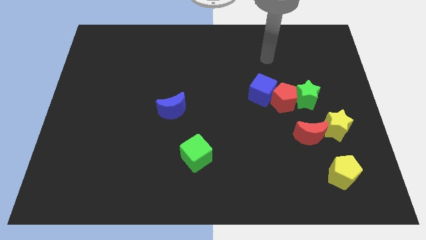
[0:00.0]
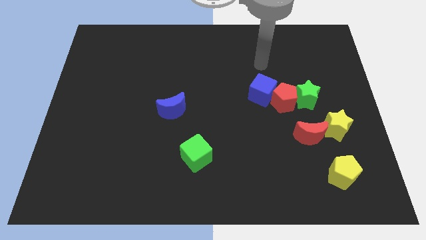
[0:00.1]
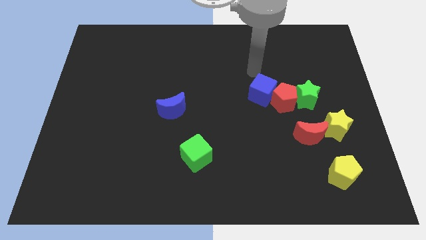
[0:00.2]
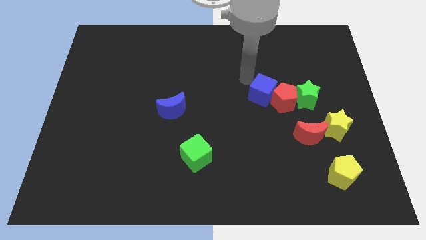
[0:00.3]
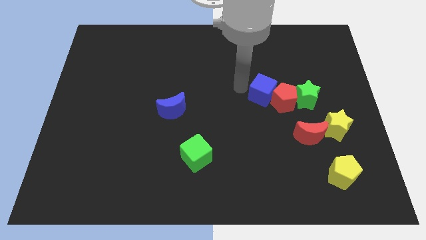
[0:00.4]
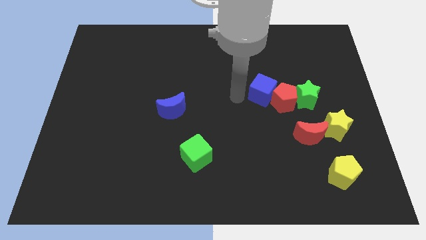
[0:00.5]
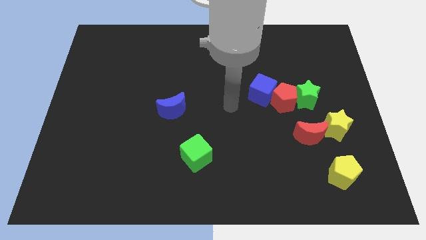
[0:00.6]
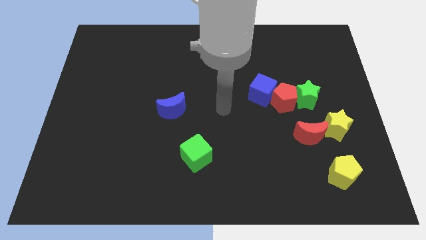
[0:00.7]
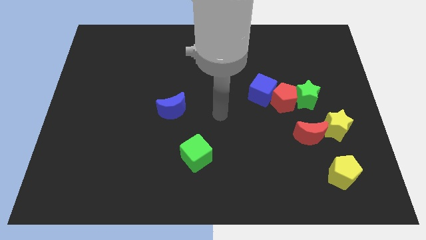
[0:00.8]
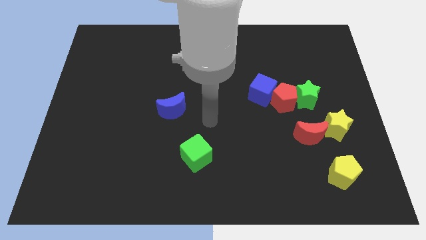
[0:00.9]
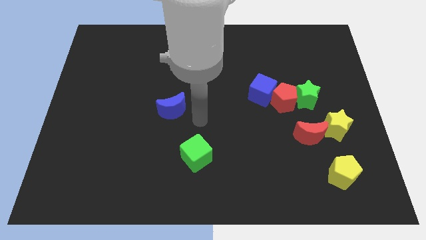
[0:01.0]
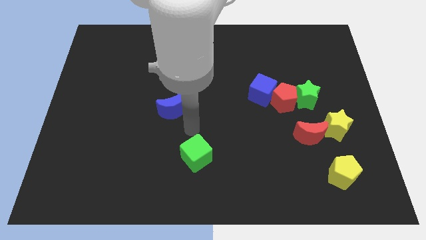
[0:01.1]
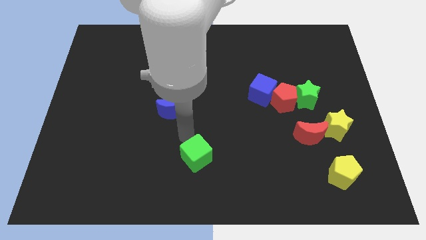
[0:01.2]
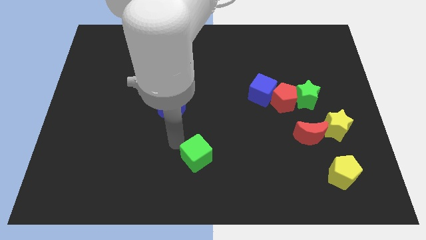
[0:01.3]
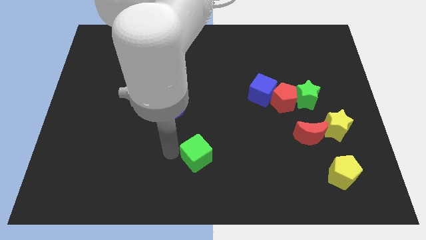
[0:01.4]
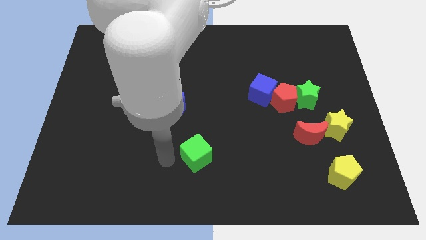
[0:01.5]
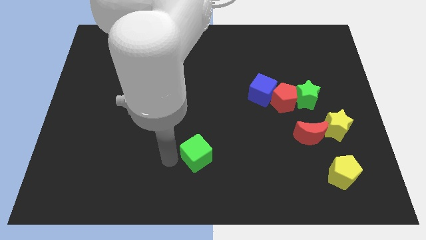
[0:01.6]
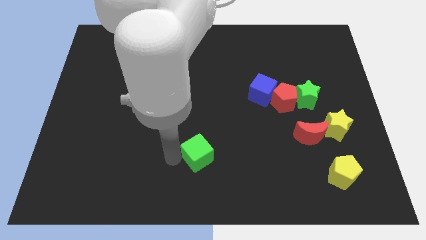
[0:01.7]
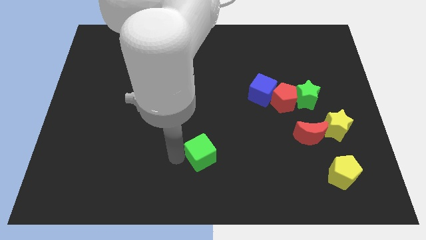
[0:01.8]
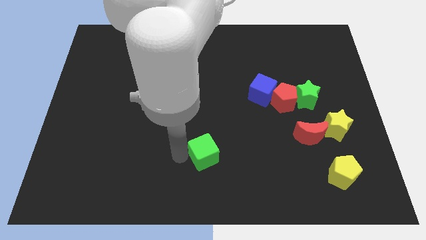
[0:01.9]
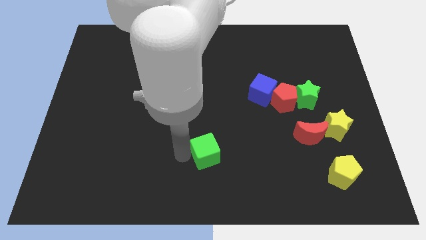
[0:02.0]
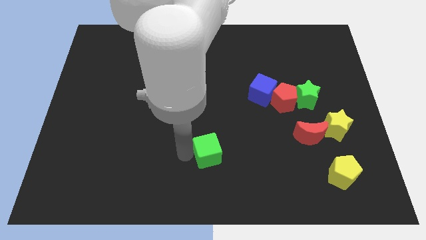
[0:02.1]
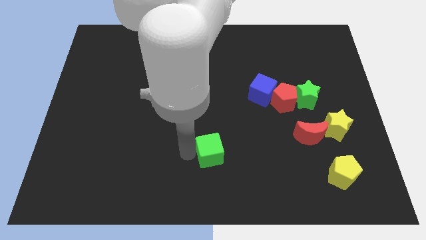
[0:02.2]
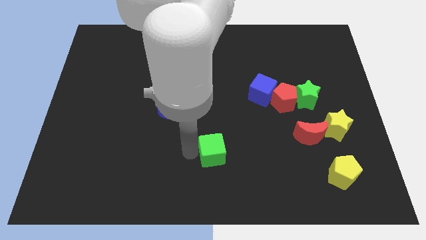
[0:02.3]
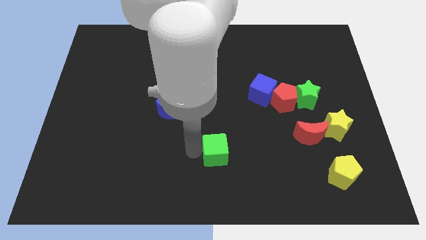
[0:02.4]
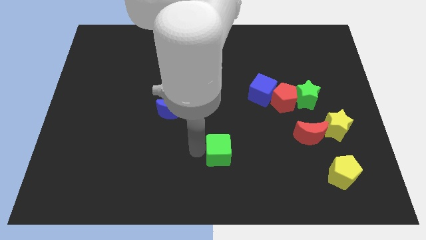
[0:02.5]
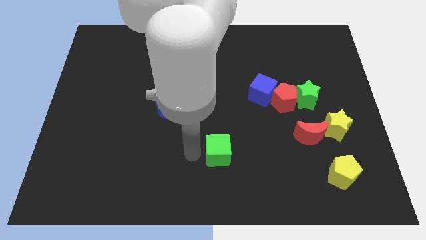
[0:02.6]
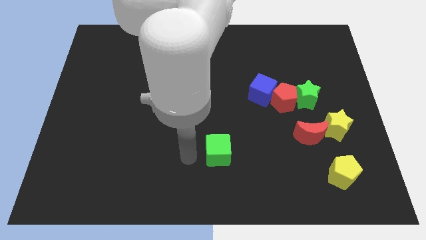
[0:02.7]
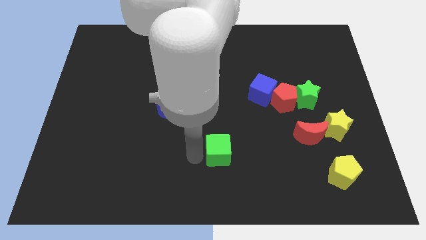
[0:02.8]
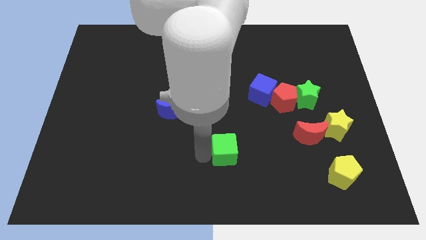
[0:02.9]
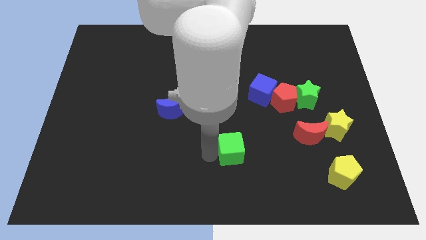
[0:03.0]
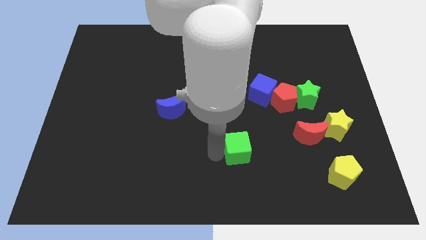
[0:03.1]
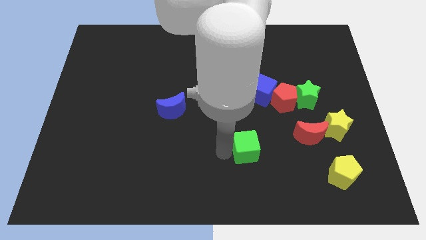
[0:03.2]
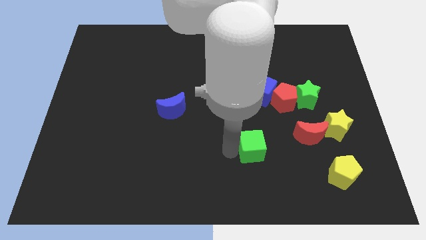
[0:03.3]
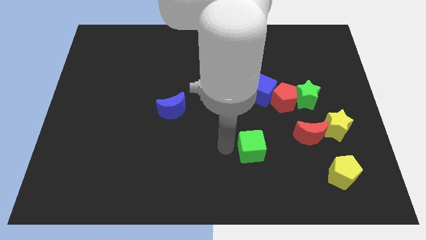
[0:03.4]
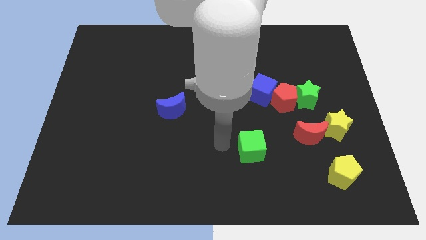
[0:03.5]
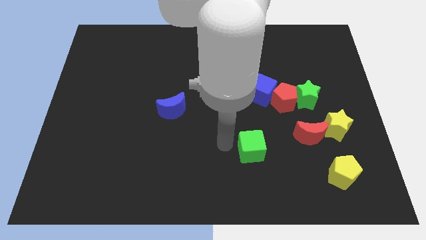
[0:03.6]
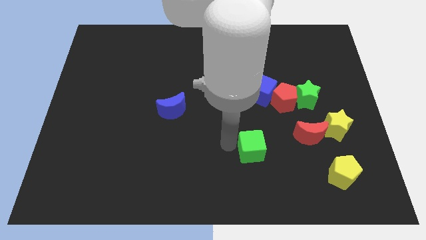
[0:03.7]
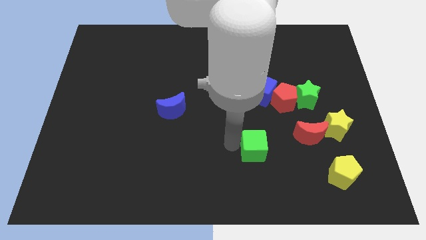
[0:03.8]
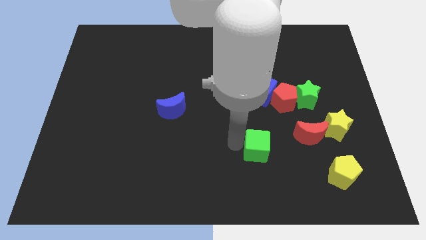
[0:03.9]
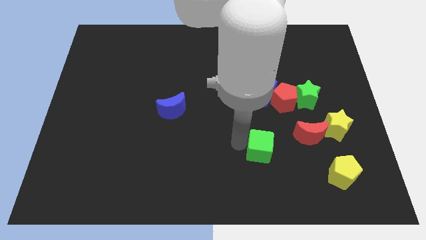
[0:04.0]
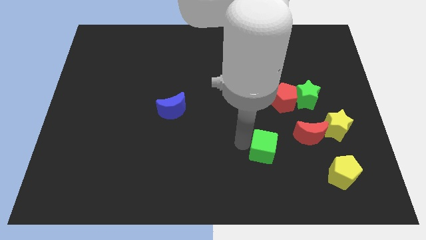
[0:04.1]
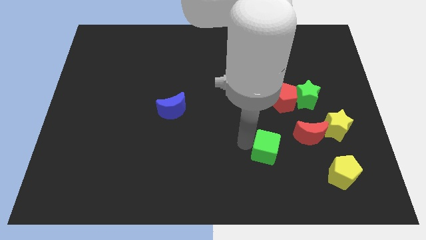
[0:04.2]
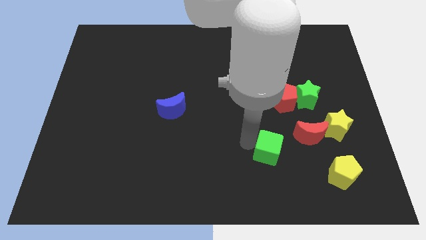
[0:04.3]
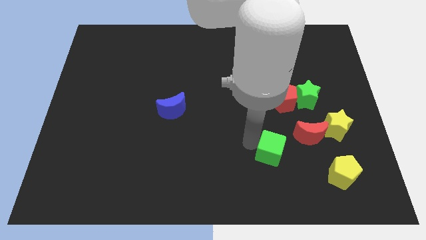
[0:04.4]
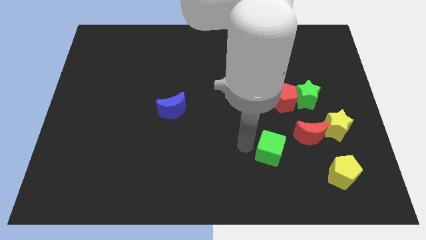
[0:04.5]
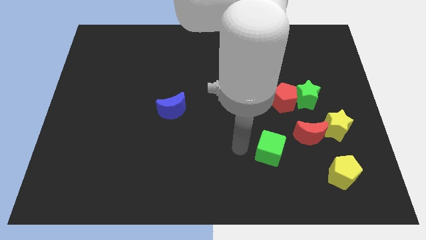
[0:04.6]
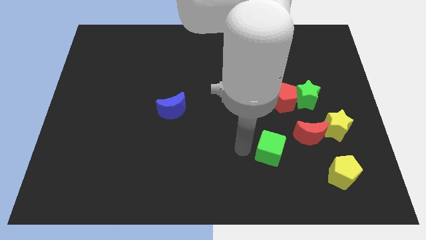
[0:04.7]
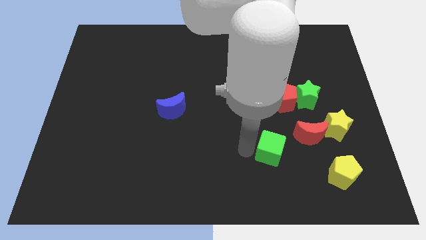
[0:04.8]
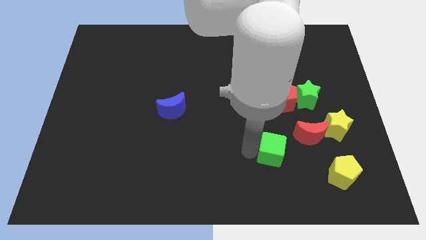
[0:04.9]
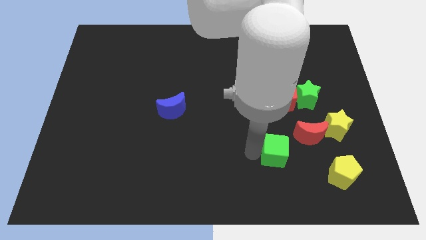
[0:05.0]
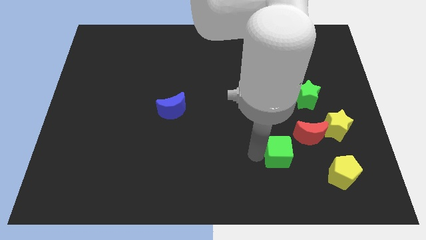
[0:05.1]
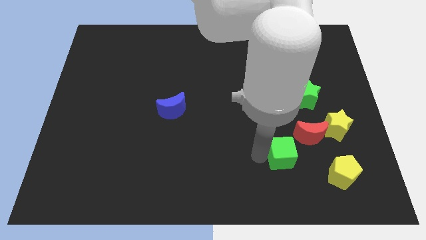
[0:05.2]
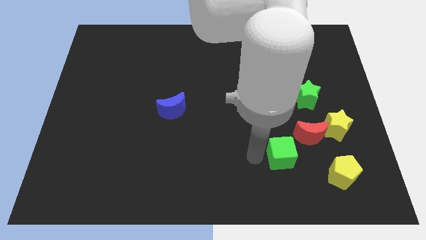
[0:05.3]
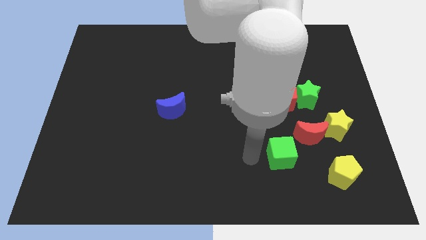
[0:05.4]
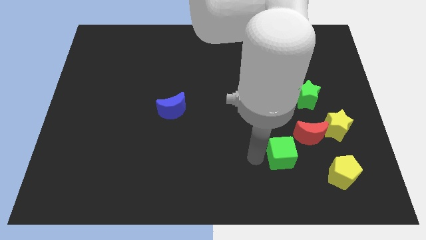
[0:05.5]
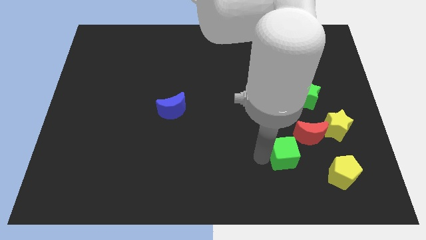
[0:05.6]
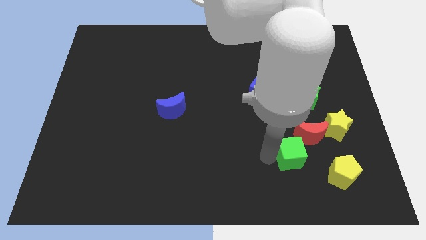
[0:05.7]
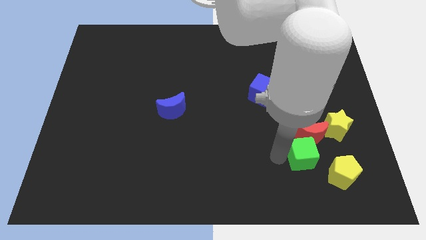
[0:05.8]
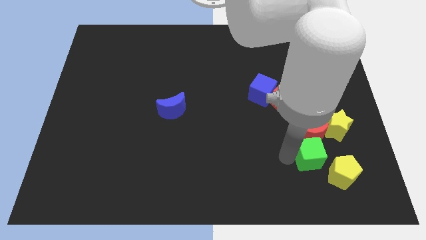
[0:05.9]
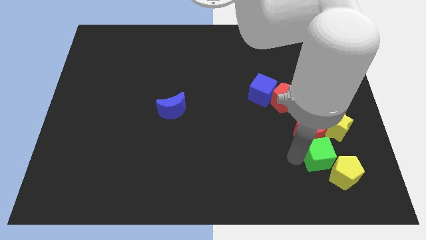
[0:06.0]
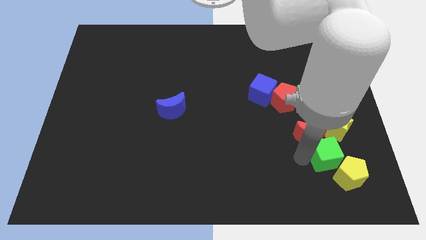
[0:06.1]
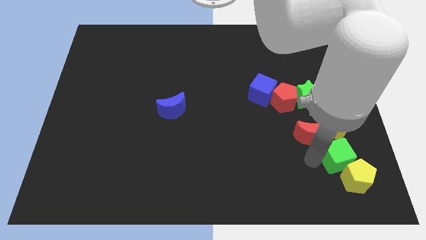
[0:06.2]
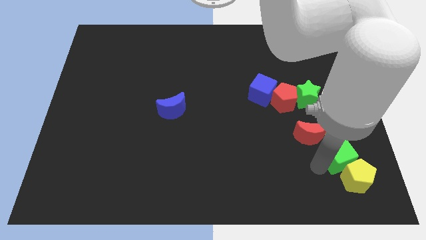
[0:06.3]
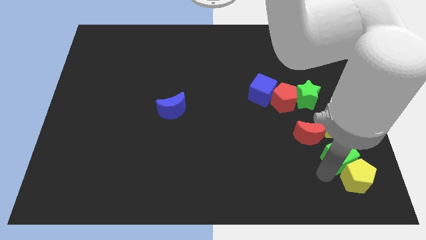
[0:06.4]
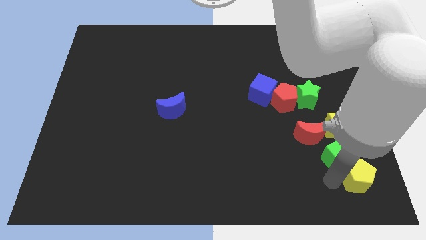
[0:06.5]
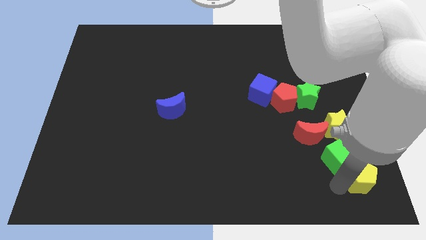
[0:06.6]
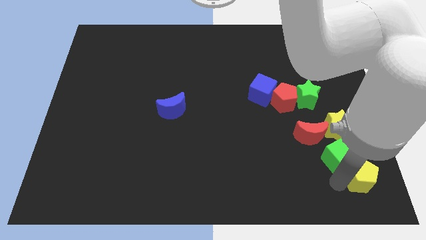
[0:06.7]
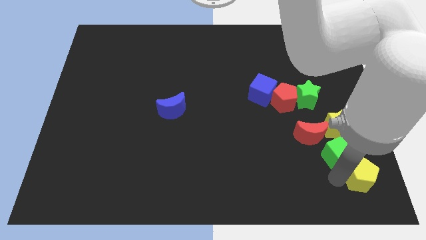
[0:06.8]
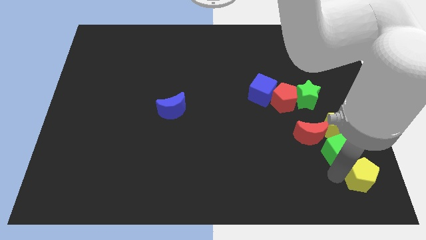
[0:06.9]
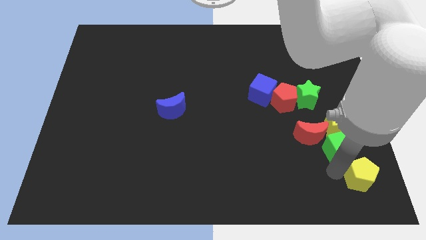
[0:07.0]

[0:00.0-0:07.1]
put the green cube close to the yellow star

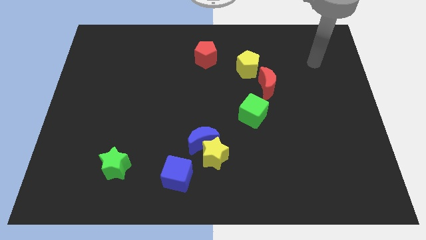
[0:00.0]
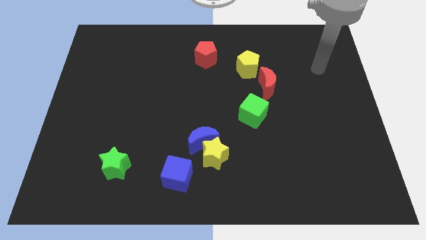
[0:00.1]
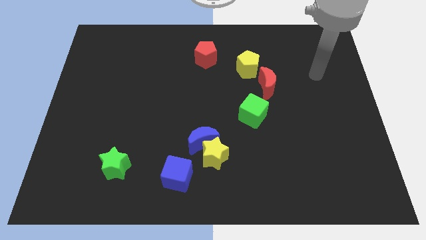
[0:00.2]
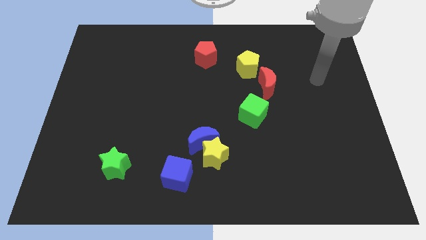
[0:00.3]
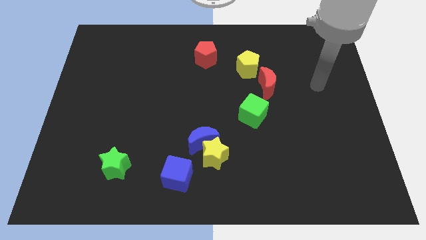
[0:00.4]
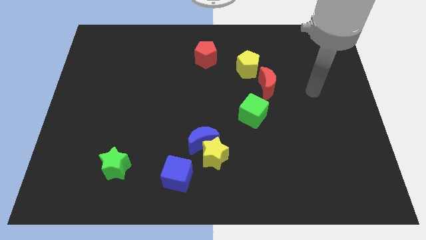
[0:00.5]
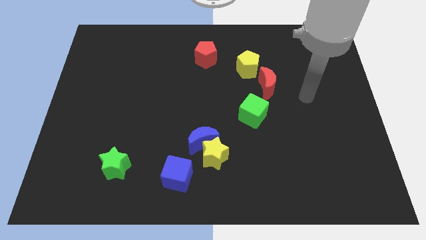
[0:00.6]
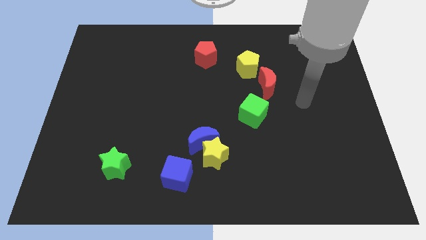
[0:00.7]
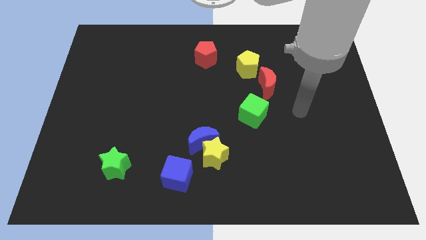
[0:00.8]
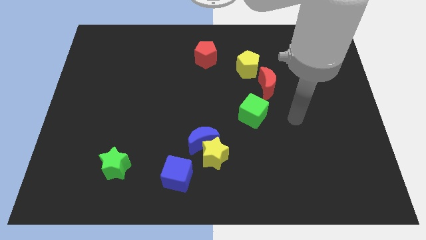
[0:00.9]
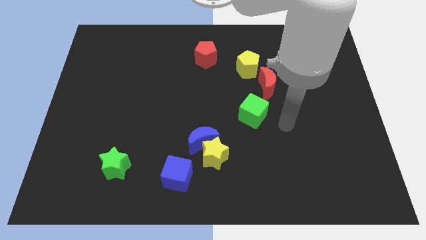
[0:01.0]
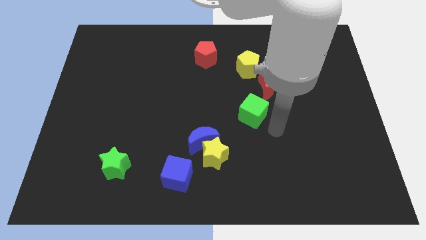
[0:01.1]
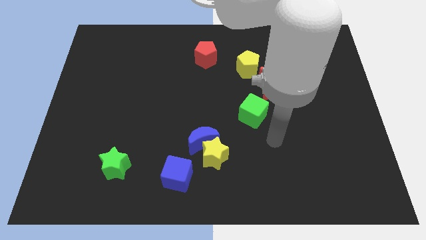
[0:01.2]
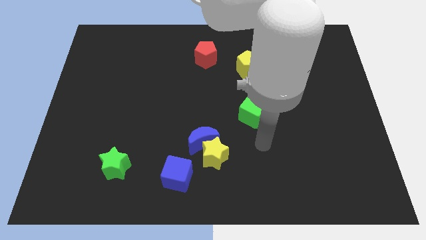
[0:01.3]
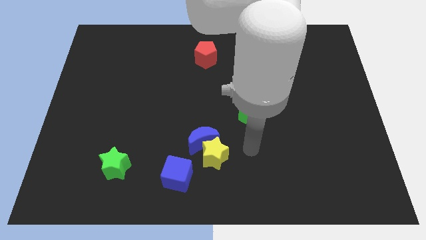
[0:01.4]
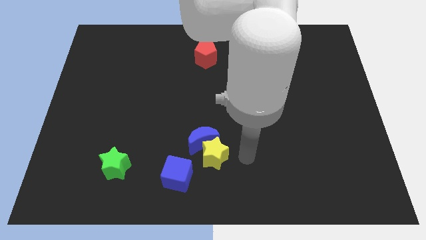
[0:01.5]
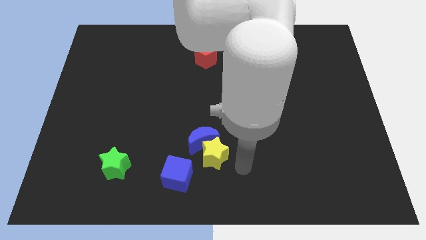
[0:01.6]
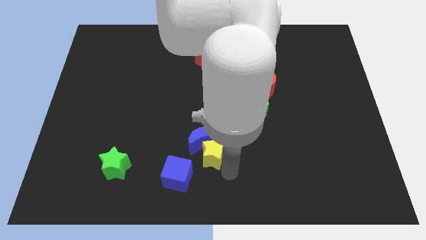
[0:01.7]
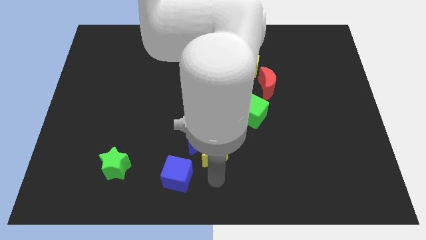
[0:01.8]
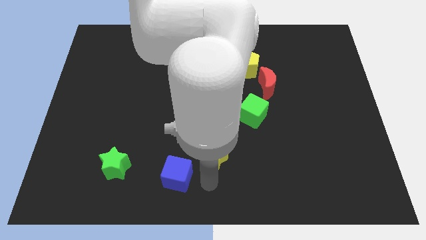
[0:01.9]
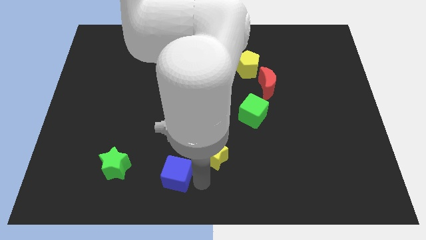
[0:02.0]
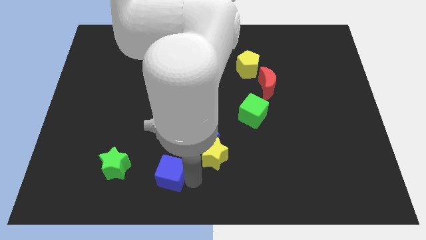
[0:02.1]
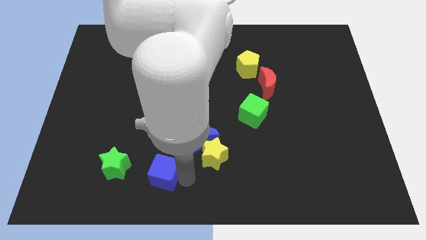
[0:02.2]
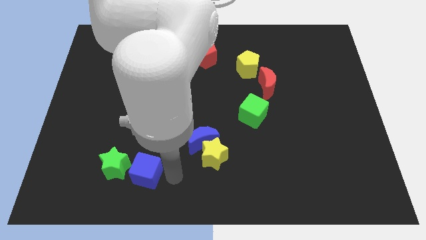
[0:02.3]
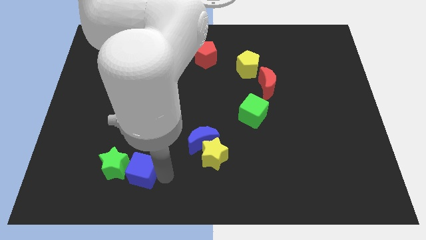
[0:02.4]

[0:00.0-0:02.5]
move the blue cube to the green star
